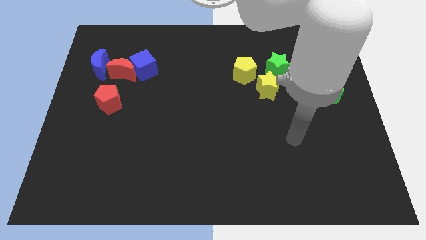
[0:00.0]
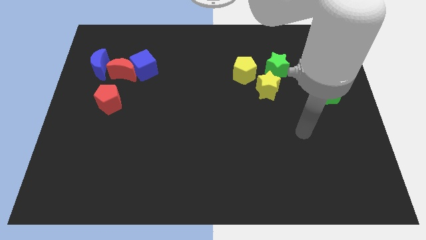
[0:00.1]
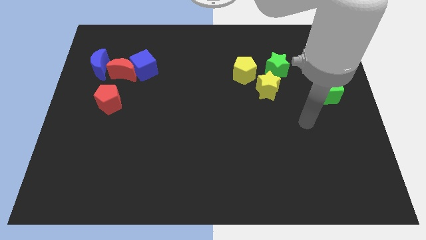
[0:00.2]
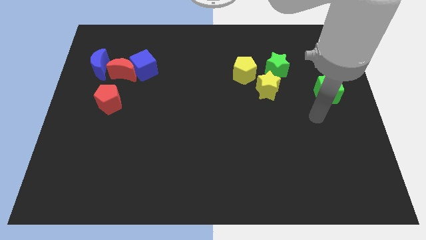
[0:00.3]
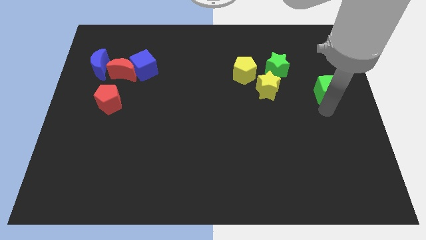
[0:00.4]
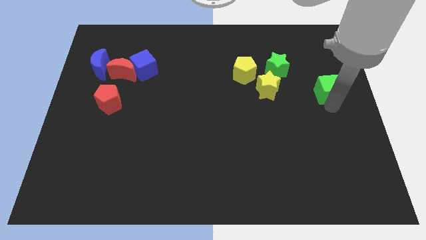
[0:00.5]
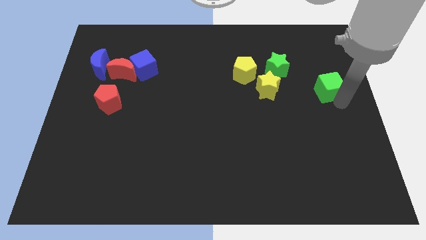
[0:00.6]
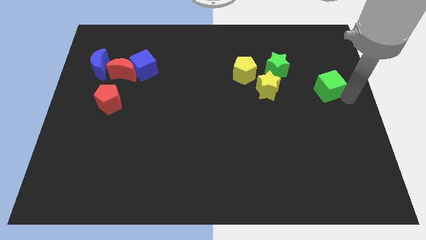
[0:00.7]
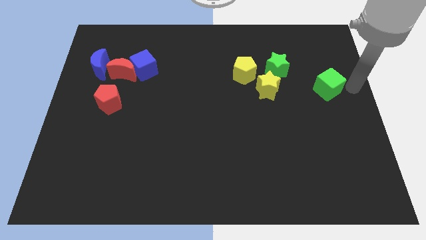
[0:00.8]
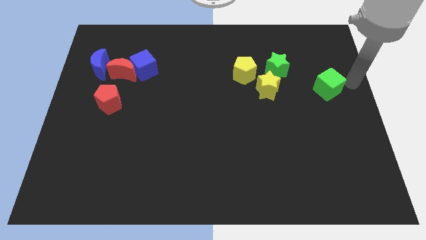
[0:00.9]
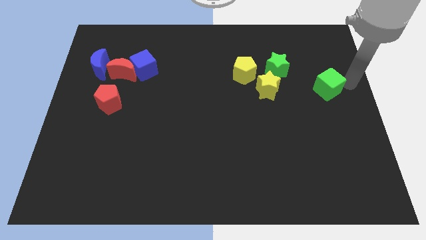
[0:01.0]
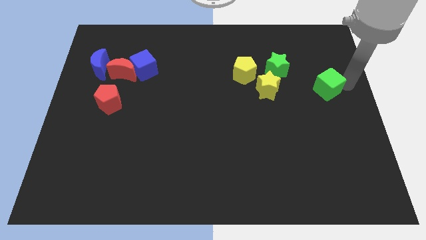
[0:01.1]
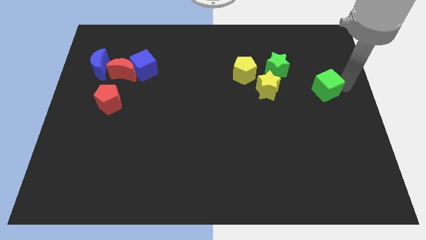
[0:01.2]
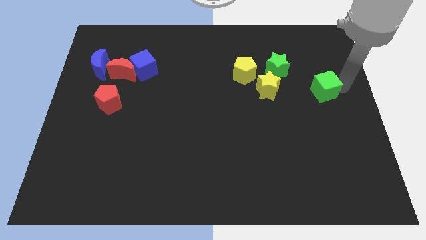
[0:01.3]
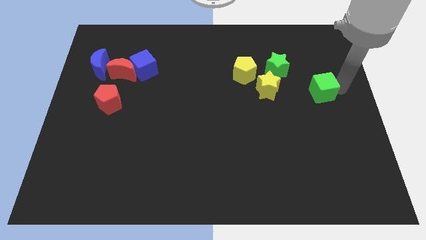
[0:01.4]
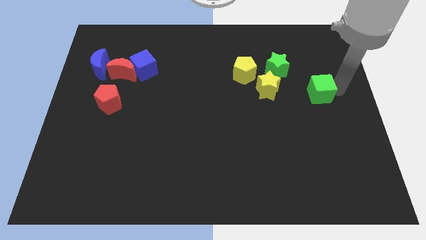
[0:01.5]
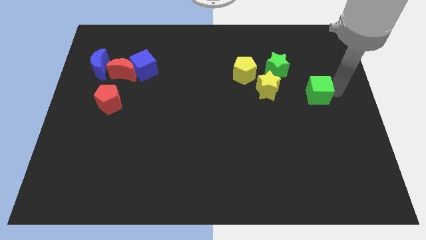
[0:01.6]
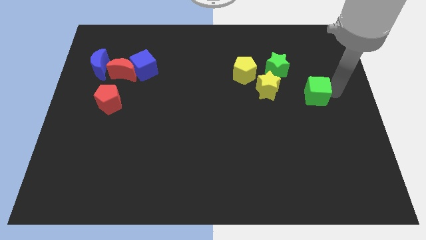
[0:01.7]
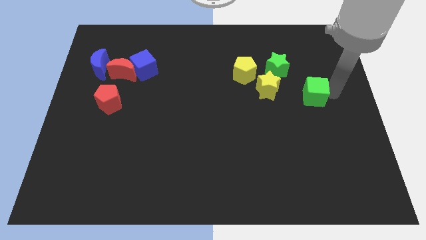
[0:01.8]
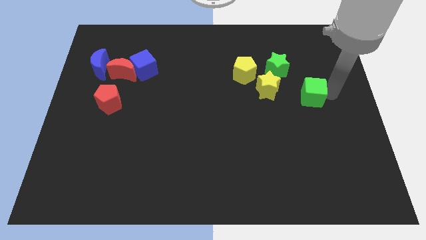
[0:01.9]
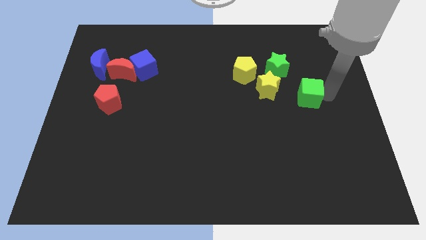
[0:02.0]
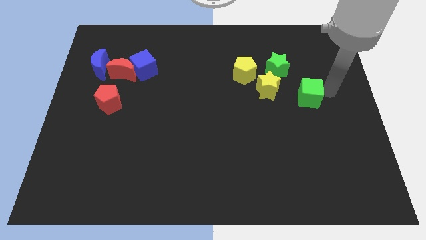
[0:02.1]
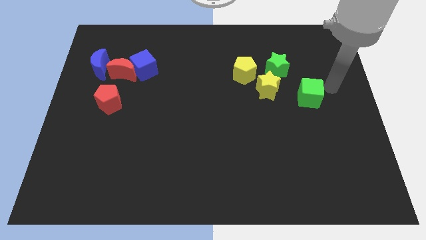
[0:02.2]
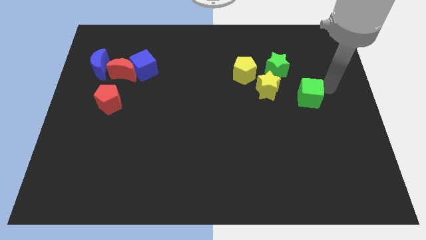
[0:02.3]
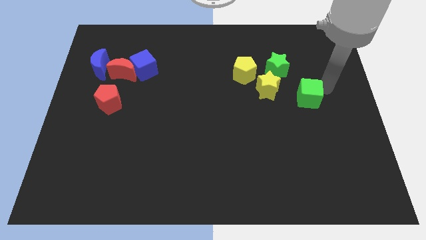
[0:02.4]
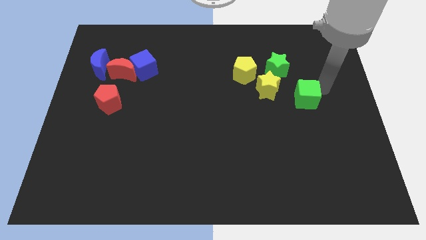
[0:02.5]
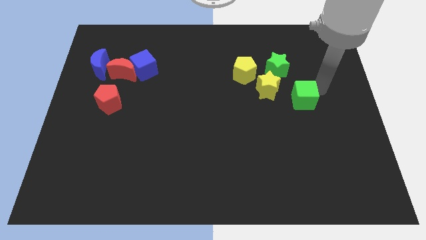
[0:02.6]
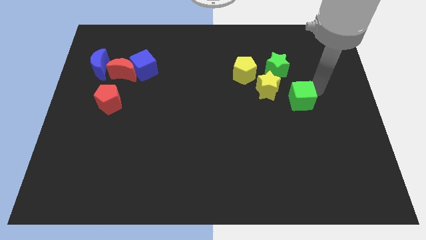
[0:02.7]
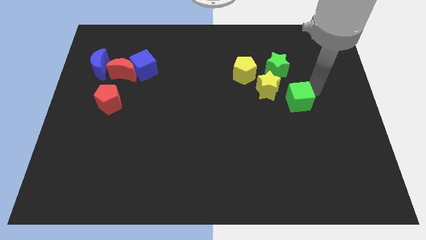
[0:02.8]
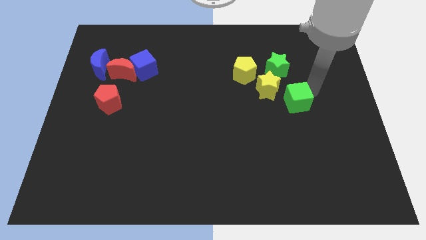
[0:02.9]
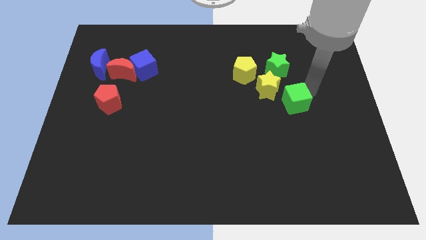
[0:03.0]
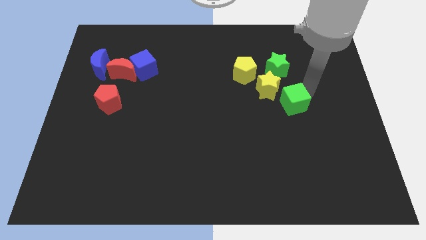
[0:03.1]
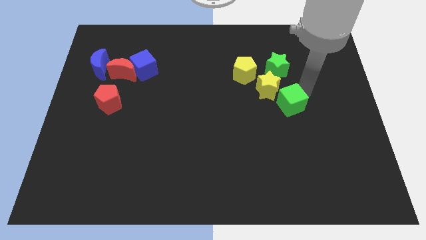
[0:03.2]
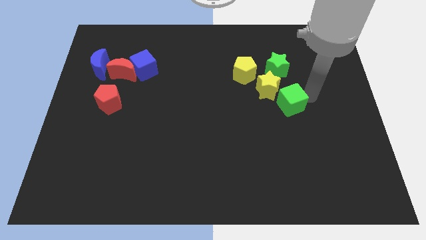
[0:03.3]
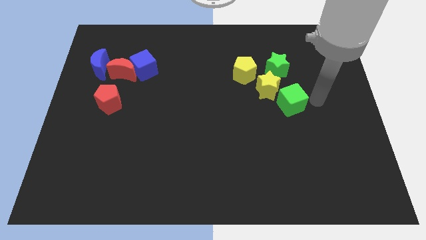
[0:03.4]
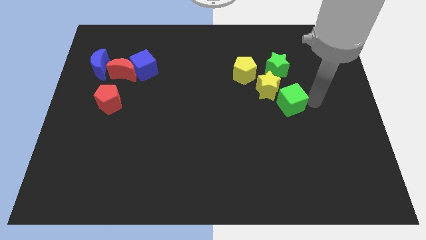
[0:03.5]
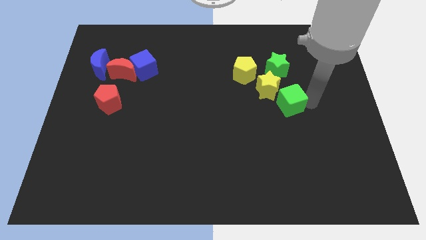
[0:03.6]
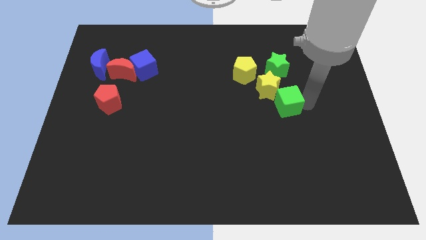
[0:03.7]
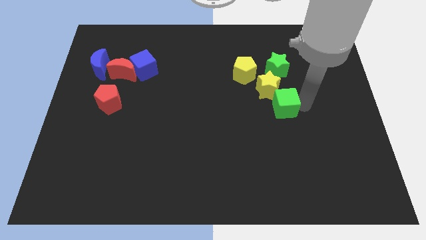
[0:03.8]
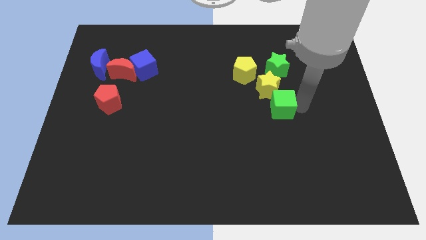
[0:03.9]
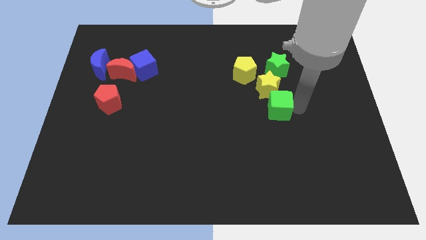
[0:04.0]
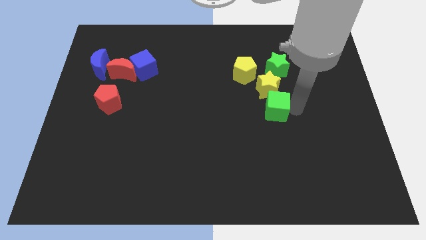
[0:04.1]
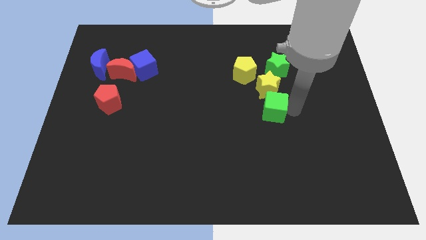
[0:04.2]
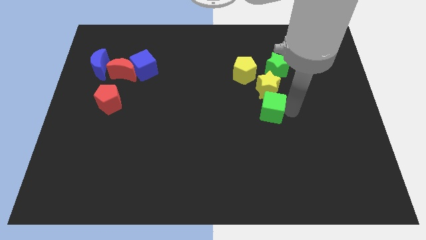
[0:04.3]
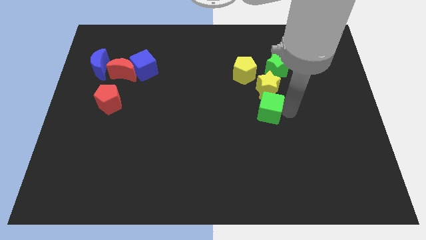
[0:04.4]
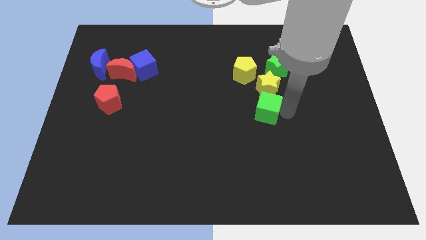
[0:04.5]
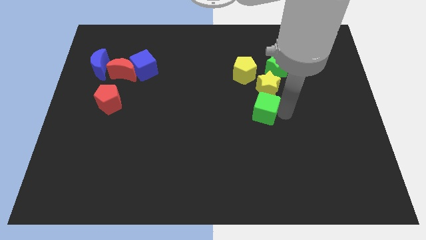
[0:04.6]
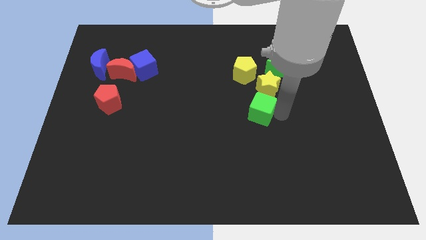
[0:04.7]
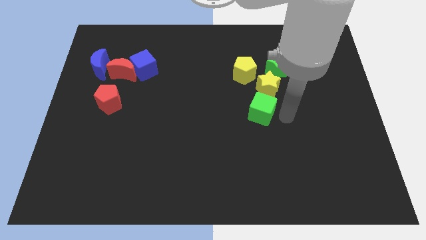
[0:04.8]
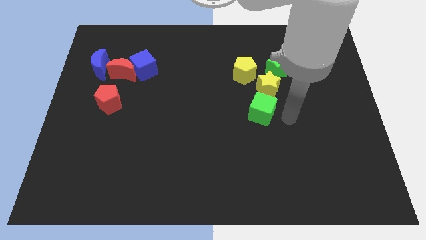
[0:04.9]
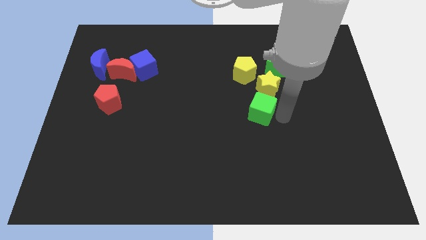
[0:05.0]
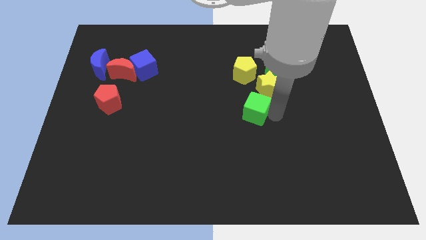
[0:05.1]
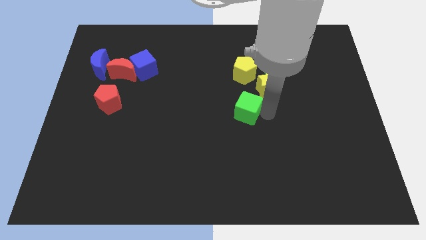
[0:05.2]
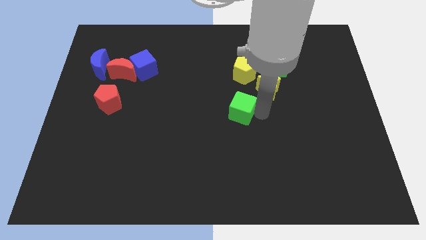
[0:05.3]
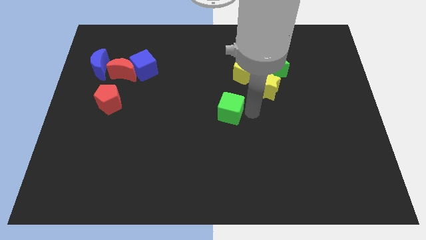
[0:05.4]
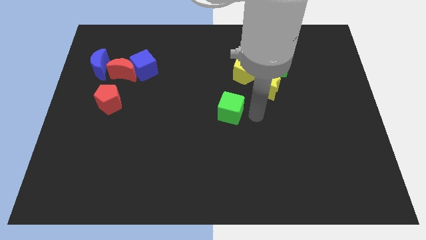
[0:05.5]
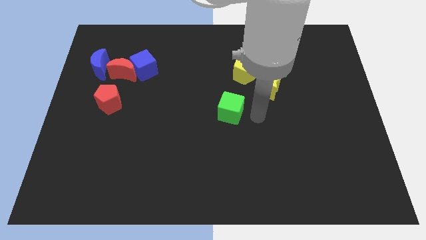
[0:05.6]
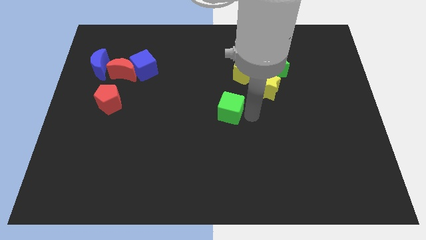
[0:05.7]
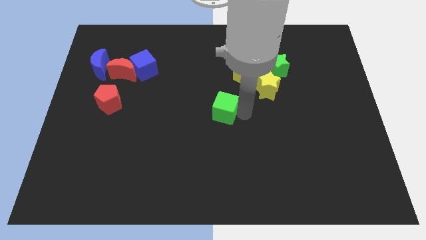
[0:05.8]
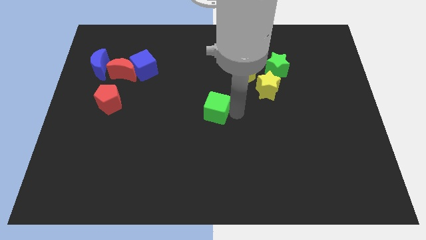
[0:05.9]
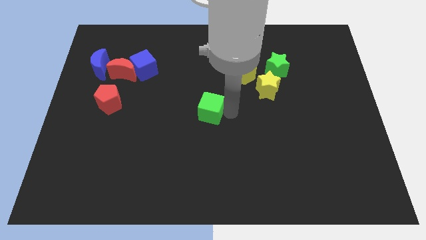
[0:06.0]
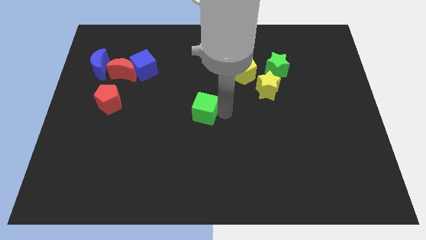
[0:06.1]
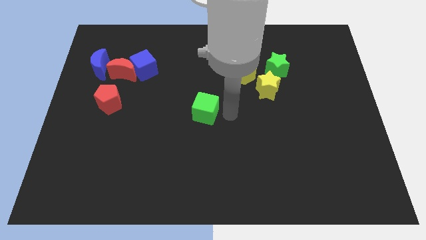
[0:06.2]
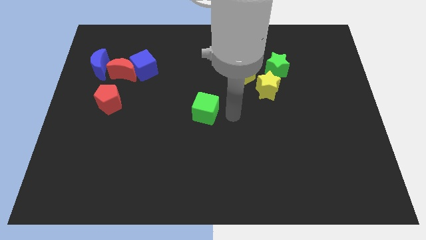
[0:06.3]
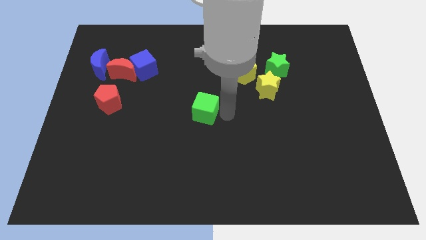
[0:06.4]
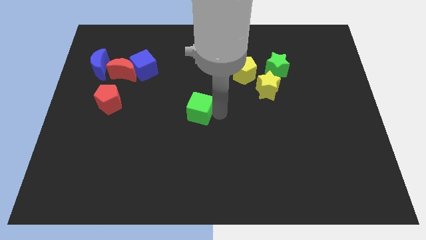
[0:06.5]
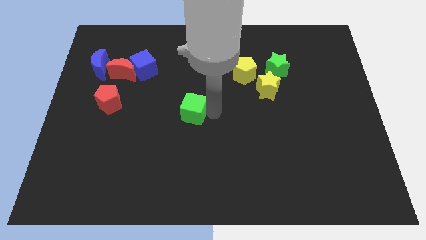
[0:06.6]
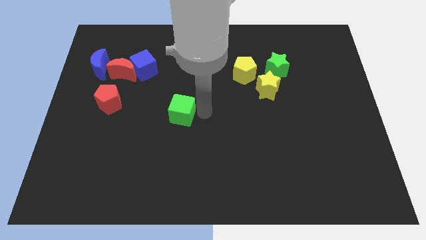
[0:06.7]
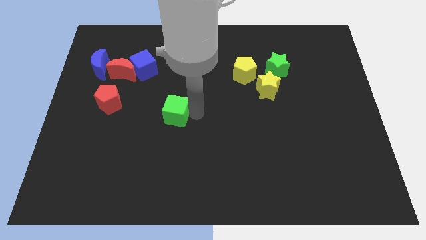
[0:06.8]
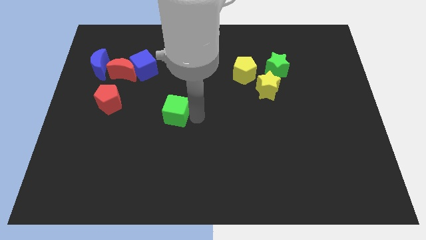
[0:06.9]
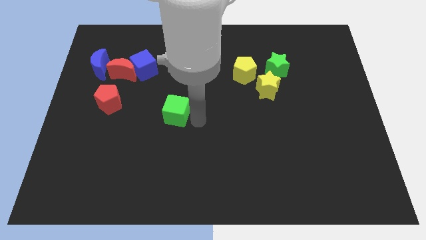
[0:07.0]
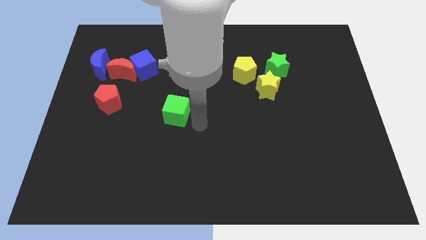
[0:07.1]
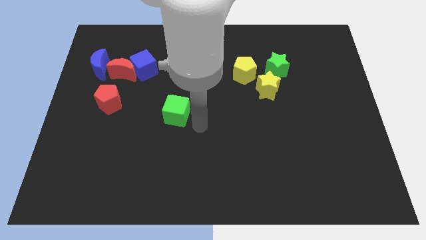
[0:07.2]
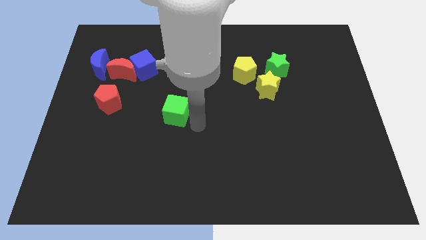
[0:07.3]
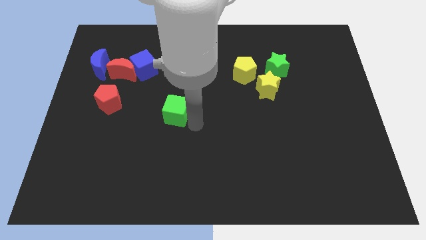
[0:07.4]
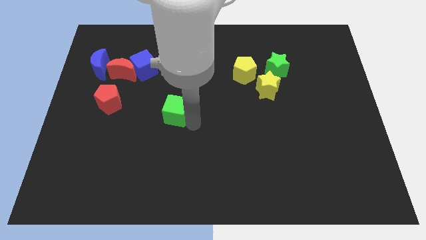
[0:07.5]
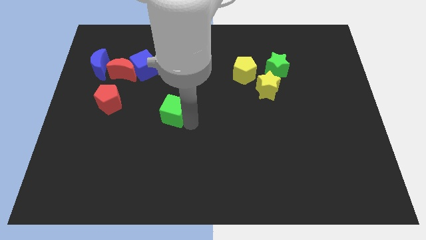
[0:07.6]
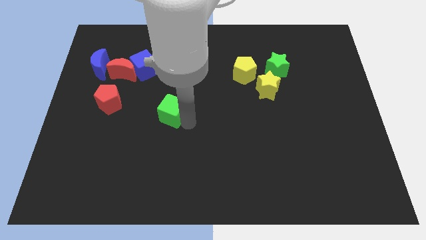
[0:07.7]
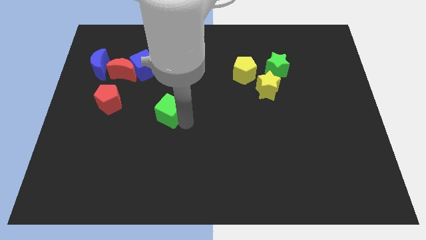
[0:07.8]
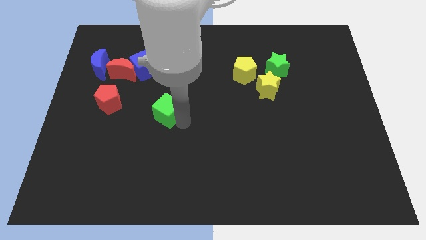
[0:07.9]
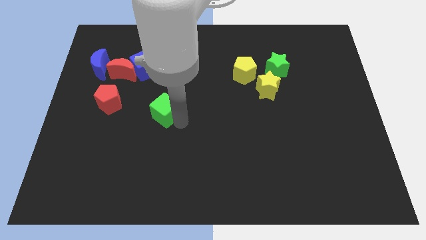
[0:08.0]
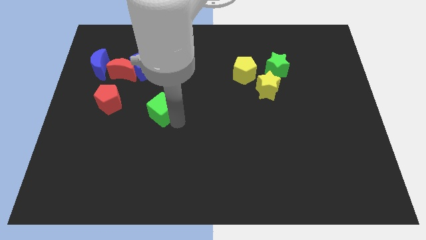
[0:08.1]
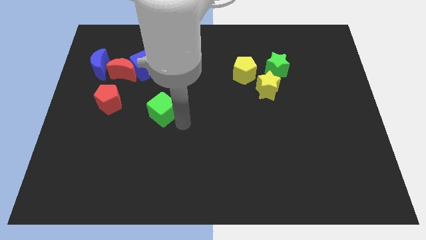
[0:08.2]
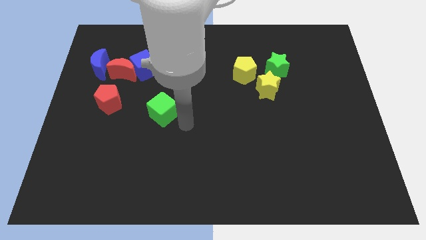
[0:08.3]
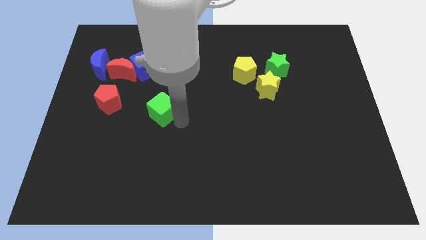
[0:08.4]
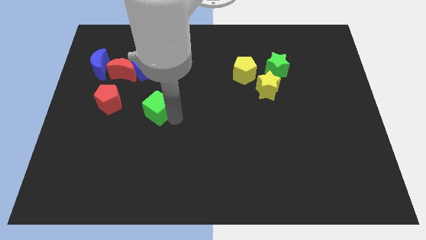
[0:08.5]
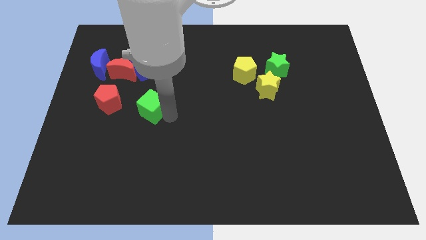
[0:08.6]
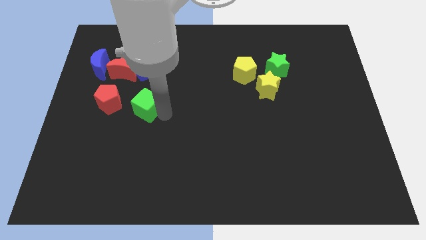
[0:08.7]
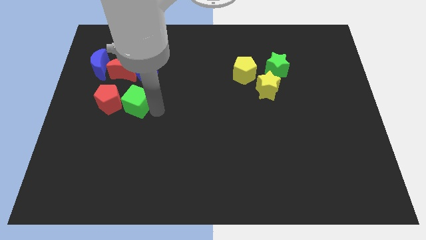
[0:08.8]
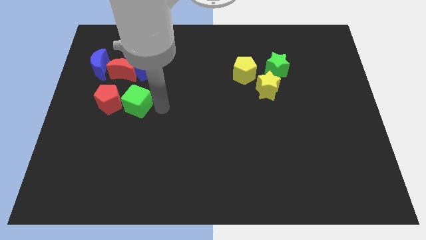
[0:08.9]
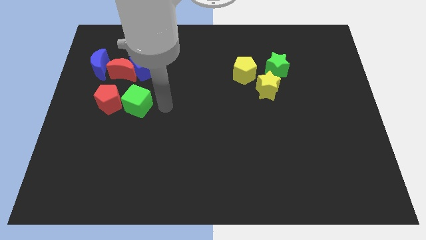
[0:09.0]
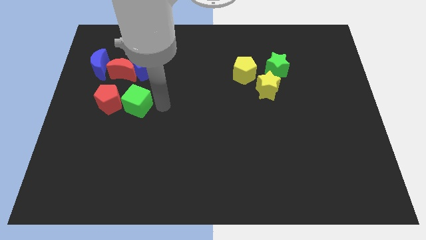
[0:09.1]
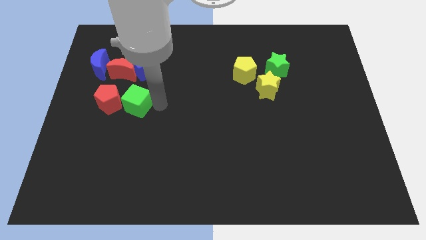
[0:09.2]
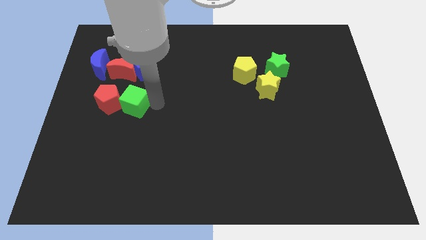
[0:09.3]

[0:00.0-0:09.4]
slide the green cube towards the red pentagon
